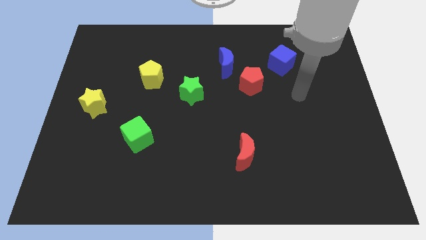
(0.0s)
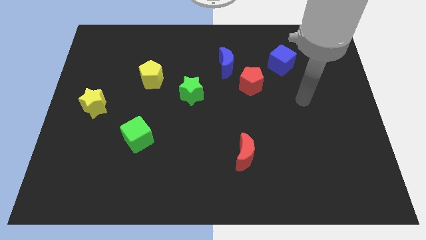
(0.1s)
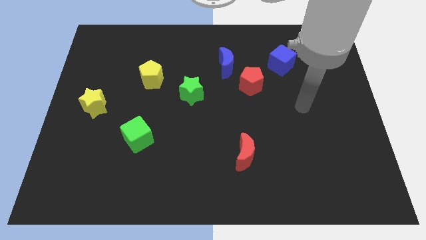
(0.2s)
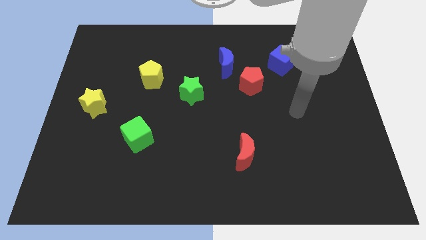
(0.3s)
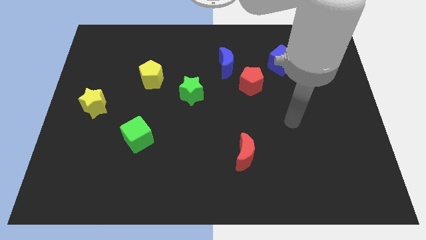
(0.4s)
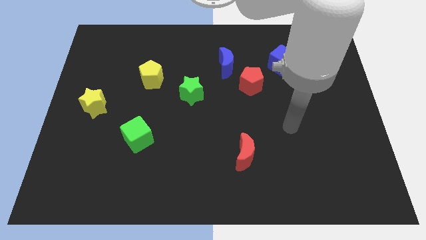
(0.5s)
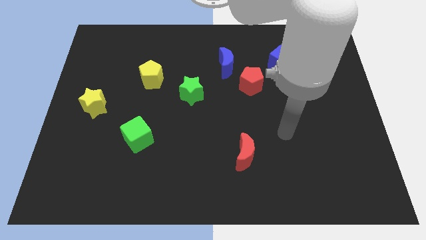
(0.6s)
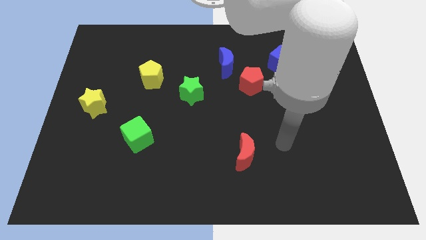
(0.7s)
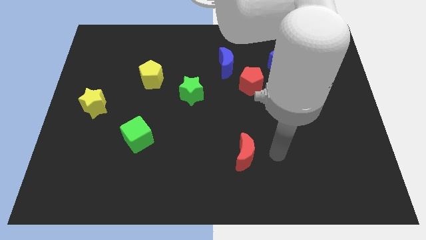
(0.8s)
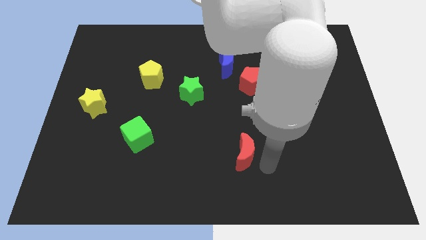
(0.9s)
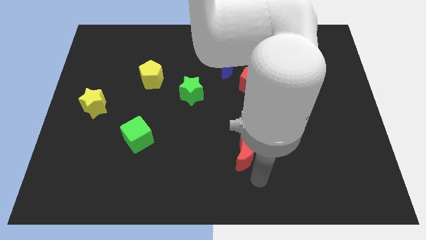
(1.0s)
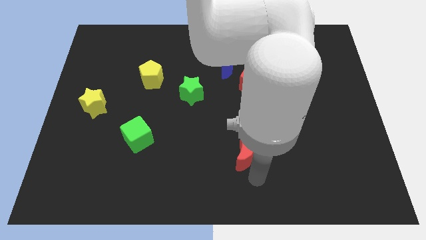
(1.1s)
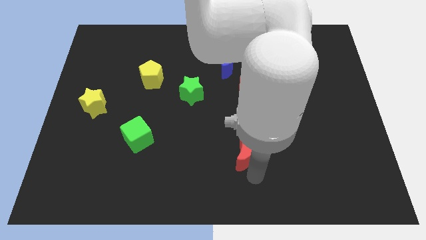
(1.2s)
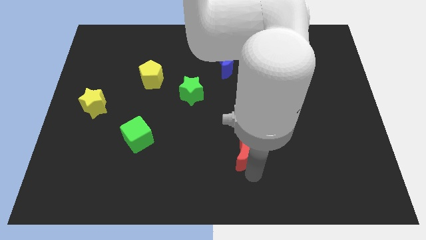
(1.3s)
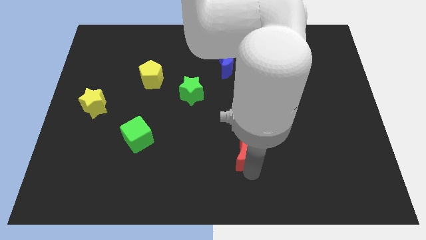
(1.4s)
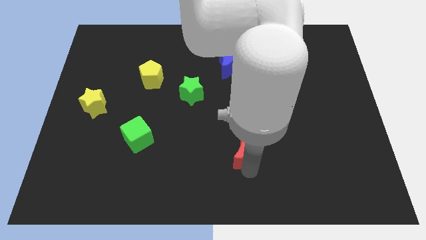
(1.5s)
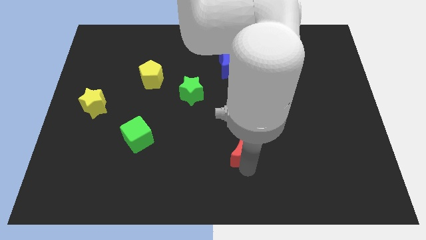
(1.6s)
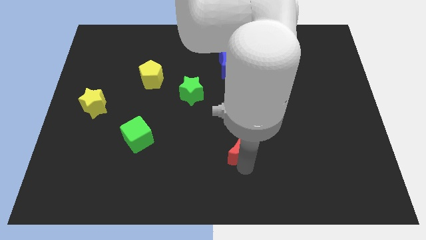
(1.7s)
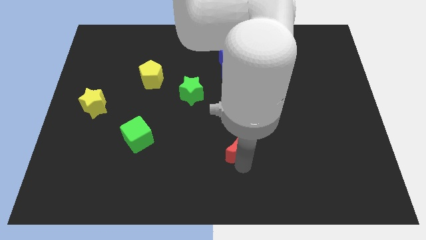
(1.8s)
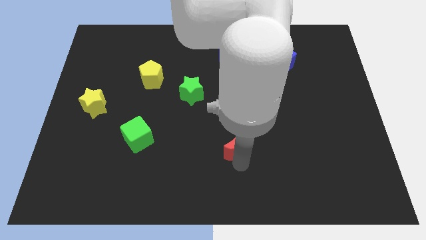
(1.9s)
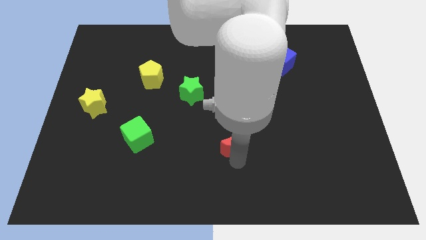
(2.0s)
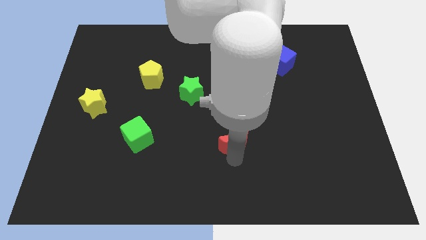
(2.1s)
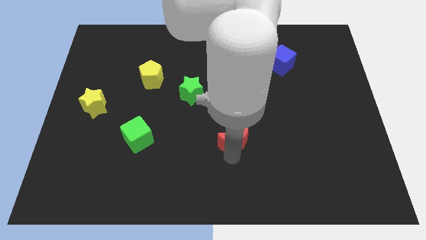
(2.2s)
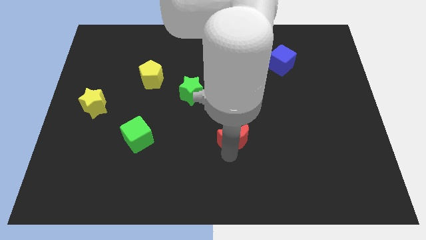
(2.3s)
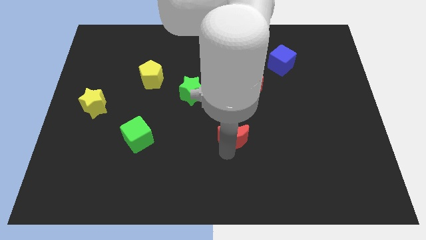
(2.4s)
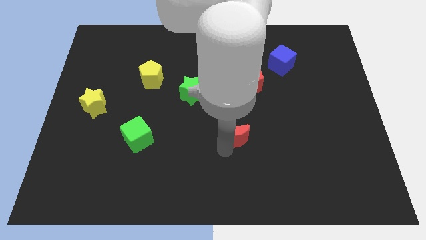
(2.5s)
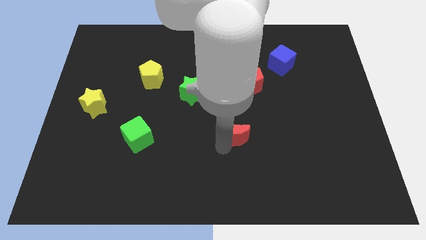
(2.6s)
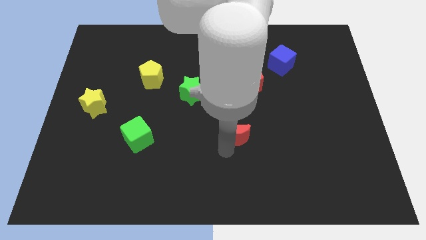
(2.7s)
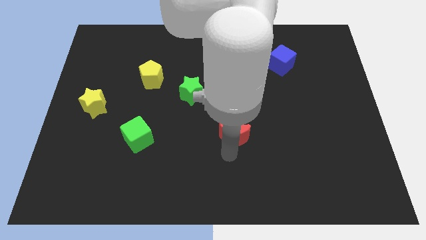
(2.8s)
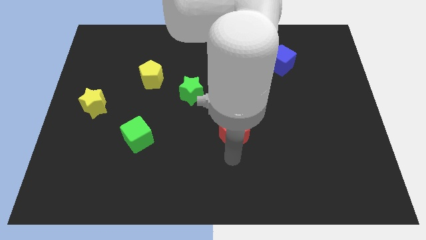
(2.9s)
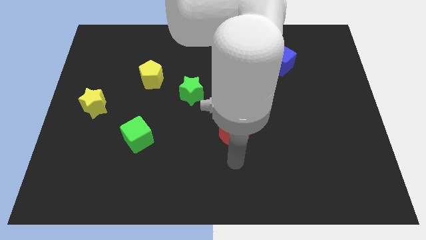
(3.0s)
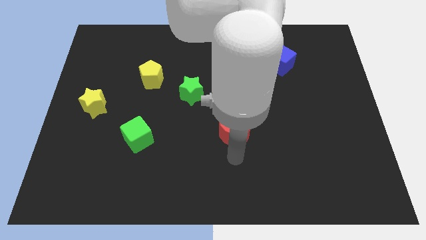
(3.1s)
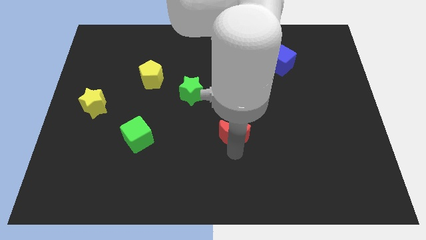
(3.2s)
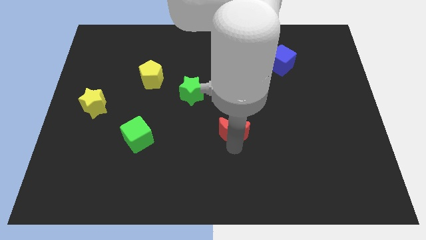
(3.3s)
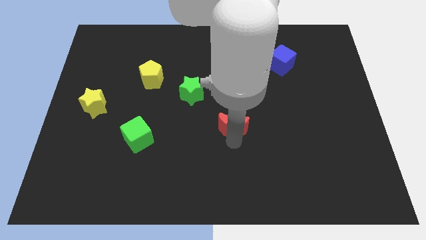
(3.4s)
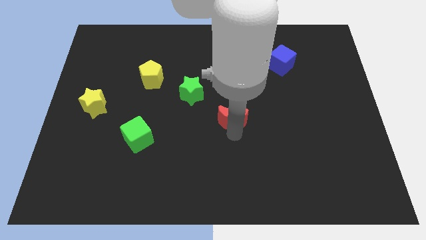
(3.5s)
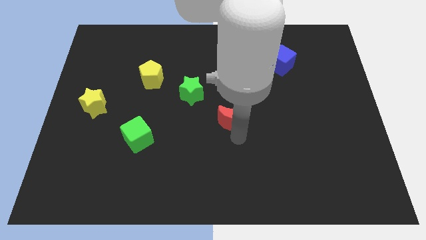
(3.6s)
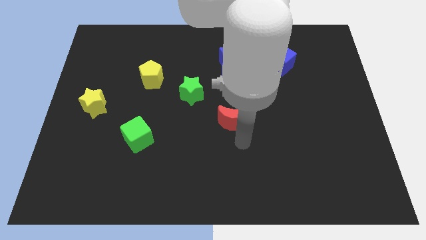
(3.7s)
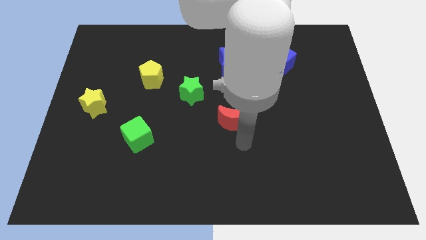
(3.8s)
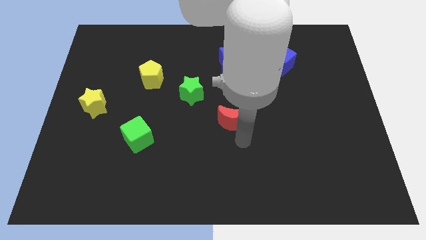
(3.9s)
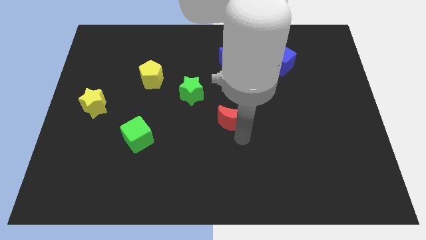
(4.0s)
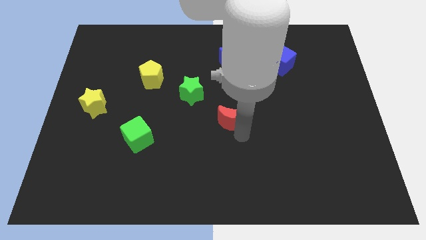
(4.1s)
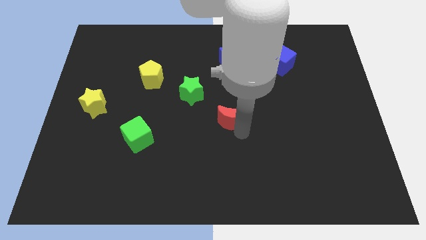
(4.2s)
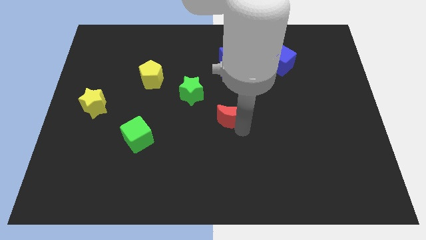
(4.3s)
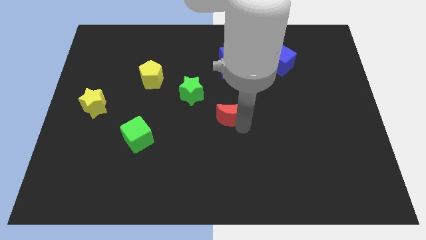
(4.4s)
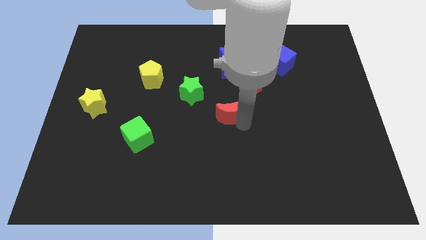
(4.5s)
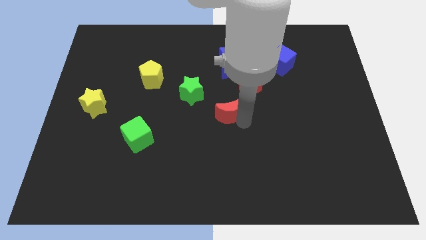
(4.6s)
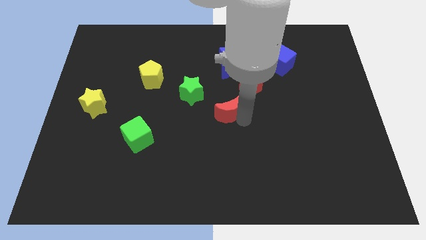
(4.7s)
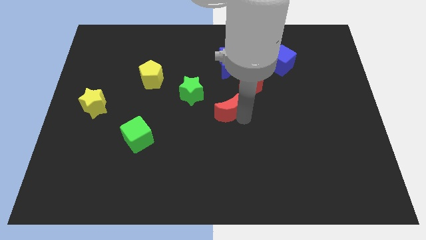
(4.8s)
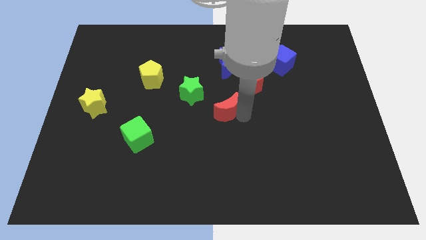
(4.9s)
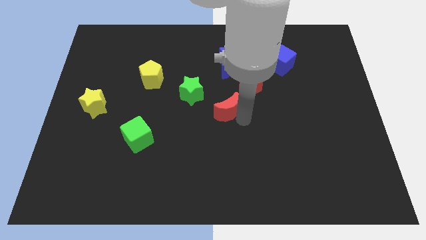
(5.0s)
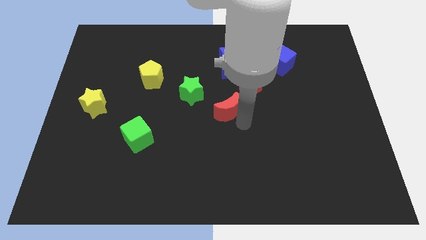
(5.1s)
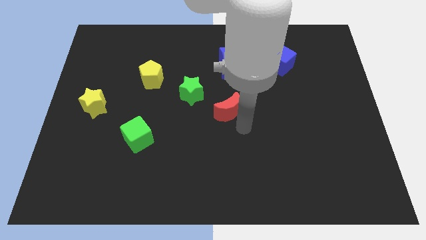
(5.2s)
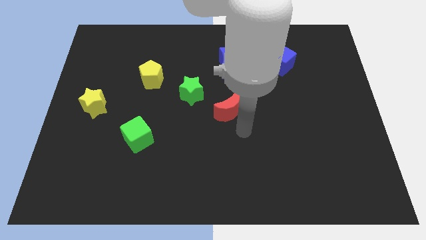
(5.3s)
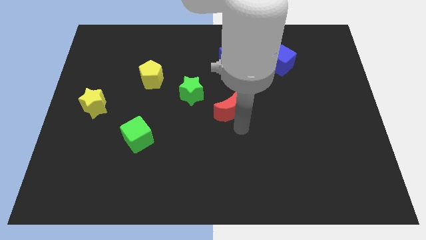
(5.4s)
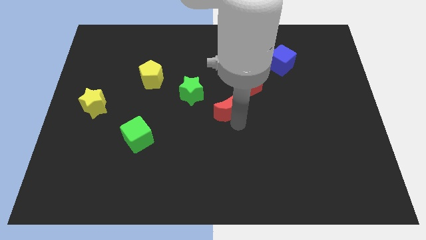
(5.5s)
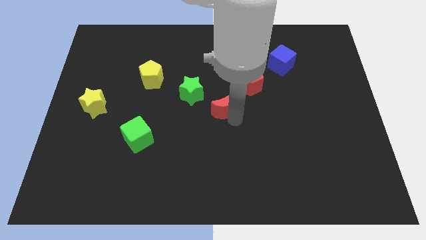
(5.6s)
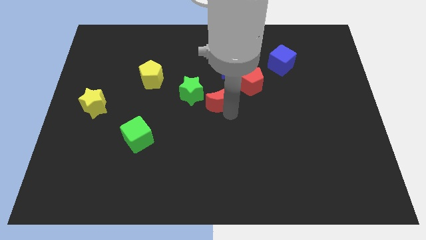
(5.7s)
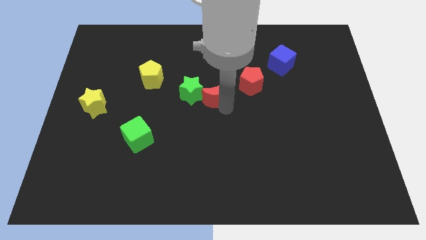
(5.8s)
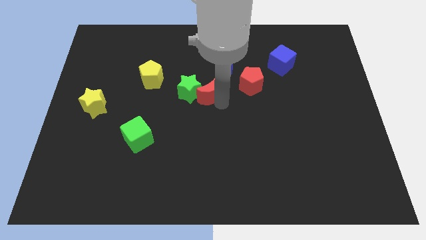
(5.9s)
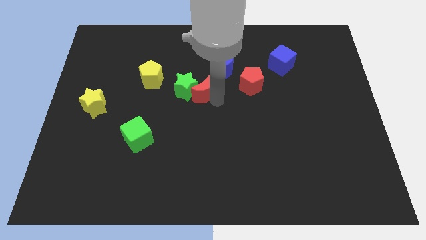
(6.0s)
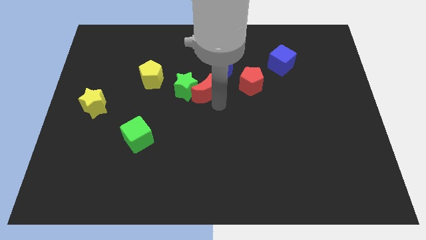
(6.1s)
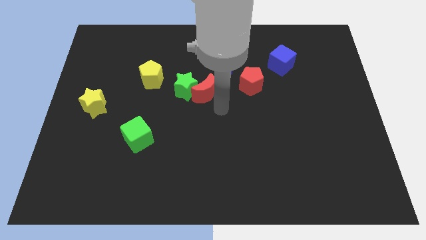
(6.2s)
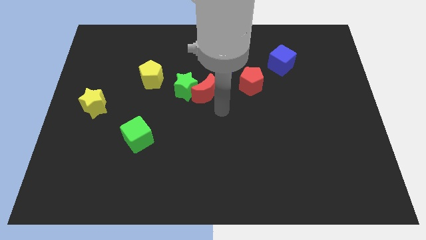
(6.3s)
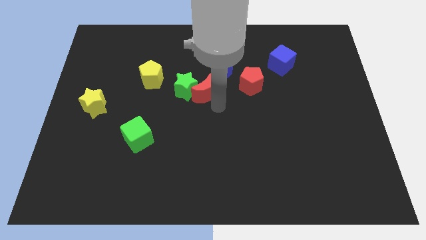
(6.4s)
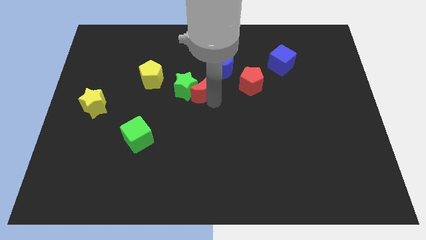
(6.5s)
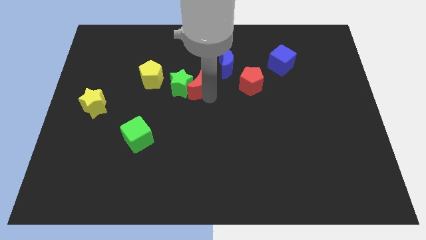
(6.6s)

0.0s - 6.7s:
put the red moon just right of the yellow pentagon

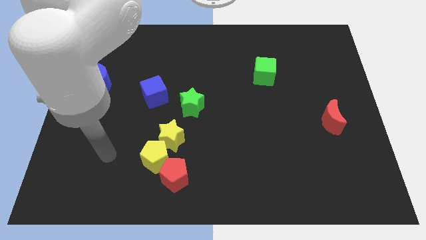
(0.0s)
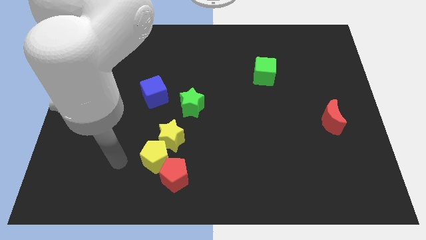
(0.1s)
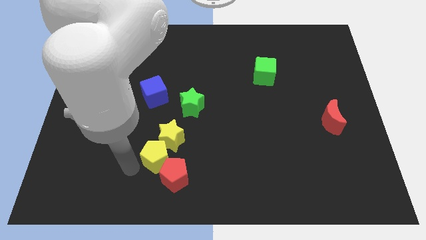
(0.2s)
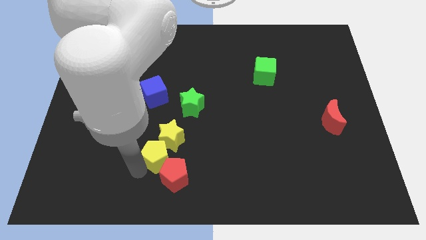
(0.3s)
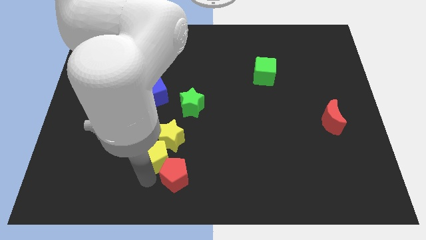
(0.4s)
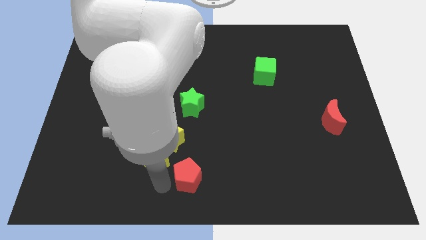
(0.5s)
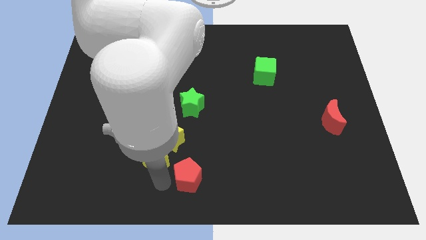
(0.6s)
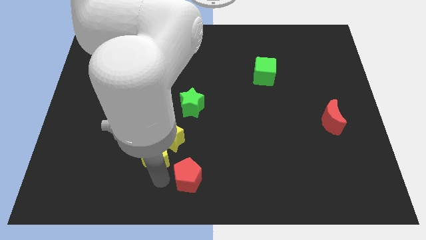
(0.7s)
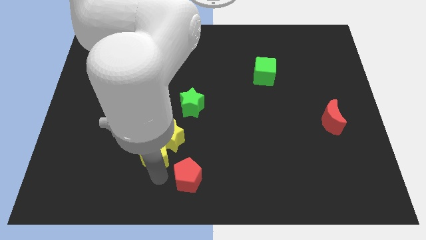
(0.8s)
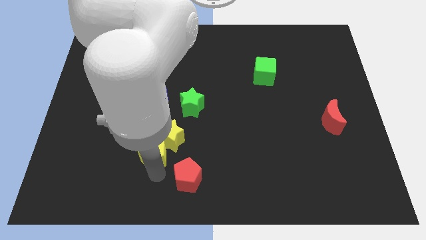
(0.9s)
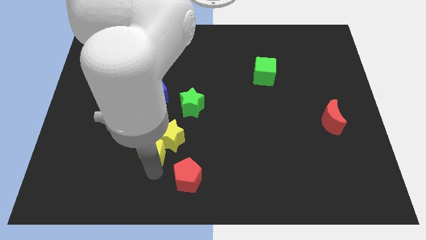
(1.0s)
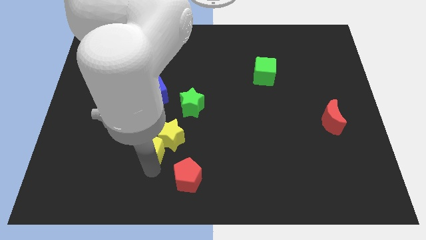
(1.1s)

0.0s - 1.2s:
put the yellow pentagon to the bottom side of the blue cube

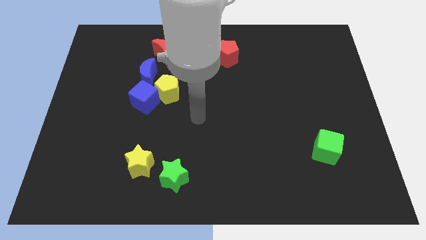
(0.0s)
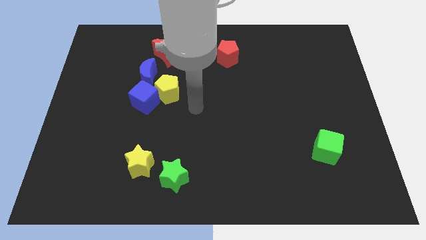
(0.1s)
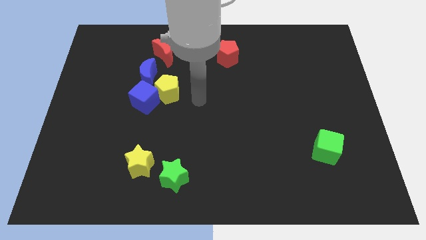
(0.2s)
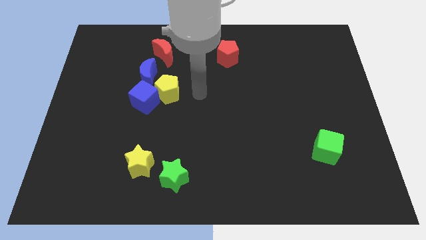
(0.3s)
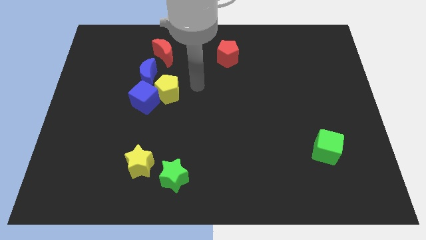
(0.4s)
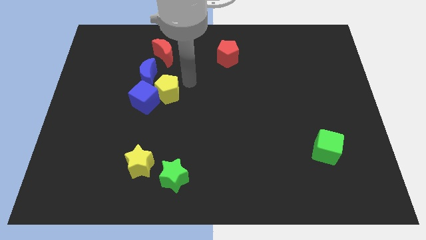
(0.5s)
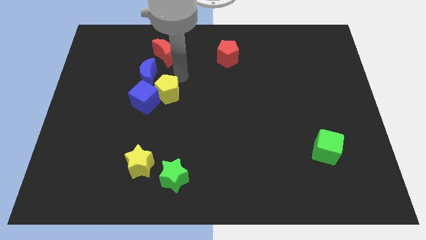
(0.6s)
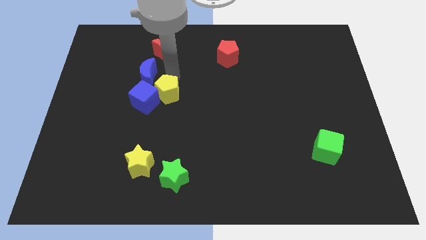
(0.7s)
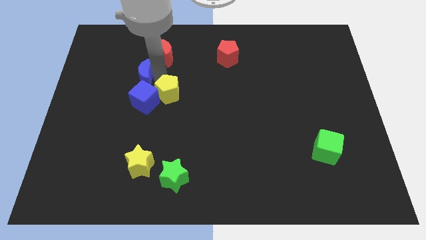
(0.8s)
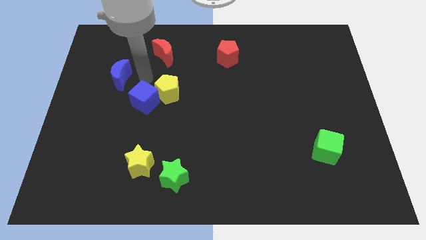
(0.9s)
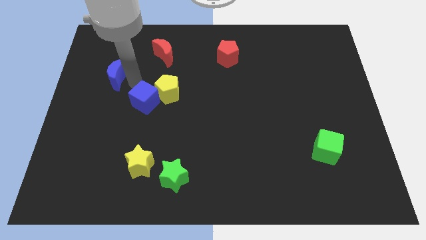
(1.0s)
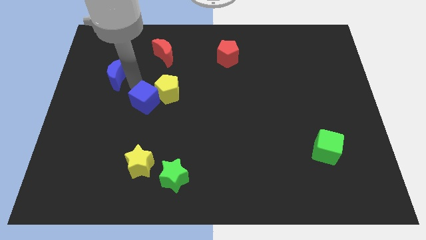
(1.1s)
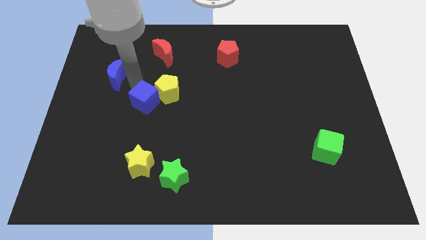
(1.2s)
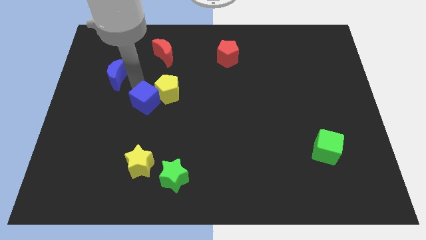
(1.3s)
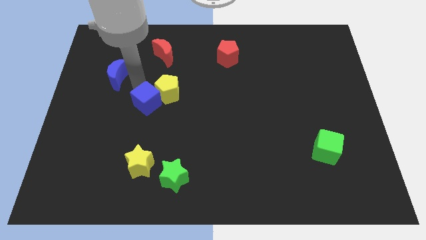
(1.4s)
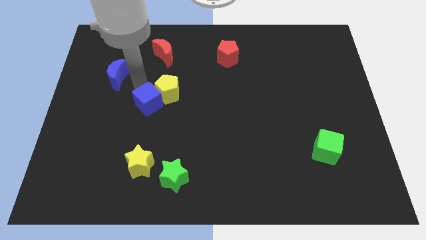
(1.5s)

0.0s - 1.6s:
put the blue cube to the bottom side of the yellow pentagon
